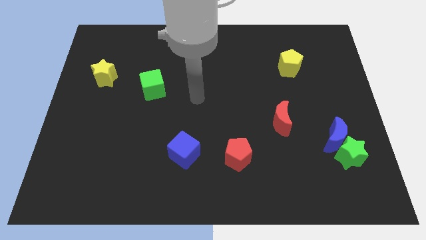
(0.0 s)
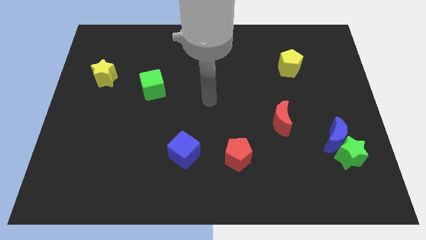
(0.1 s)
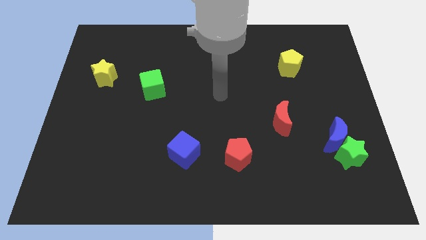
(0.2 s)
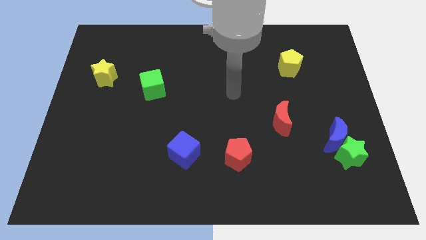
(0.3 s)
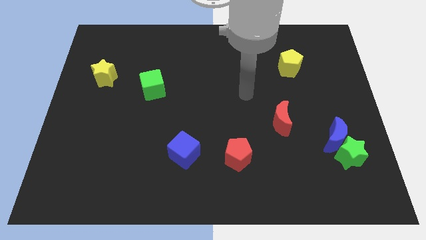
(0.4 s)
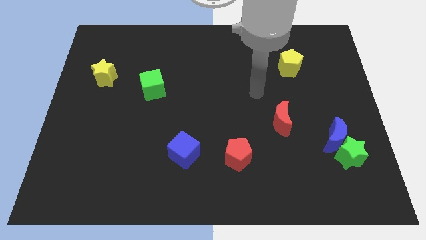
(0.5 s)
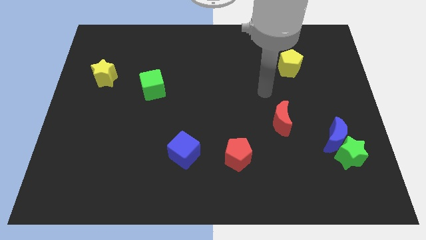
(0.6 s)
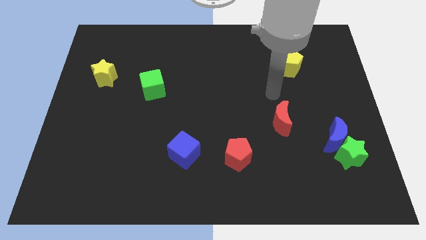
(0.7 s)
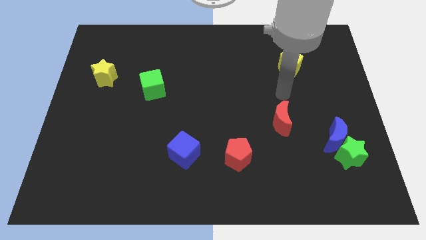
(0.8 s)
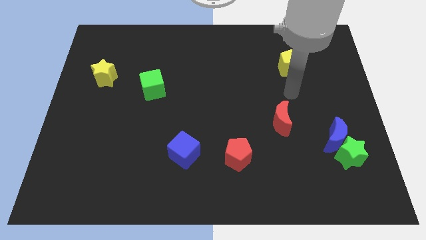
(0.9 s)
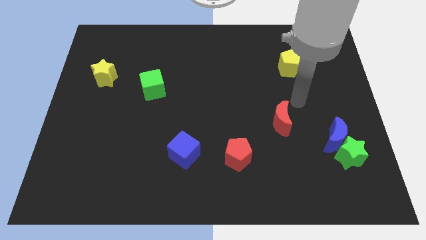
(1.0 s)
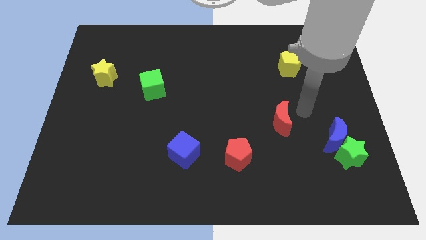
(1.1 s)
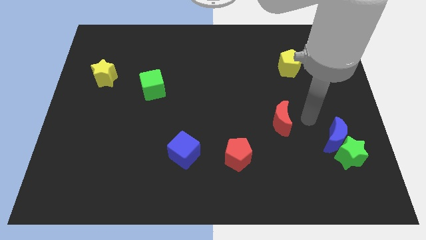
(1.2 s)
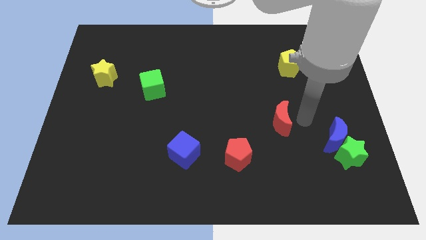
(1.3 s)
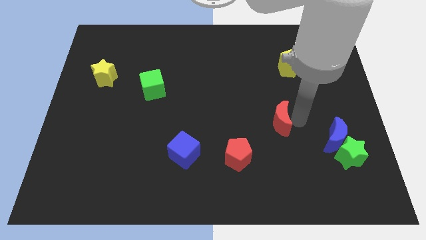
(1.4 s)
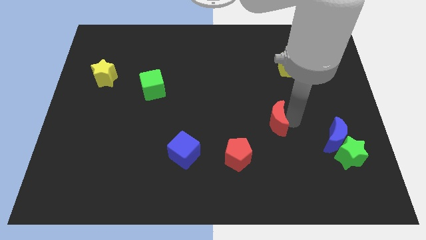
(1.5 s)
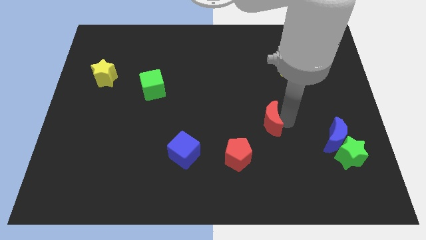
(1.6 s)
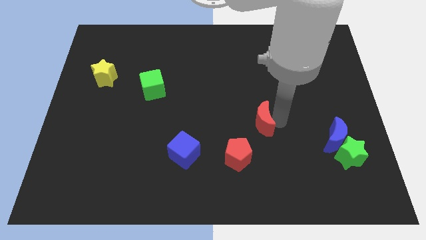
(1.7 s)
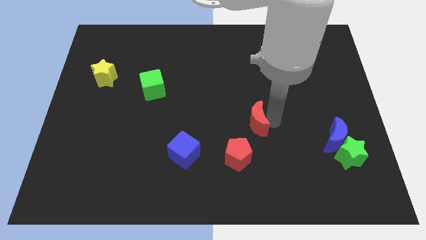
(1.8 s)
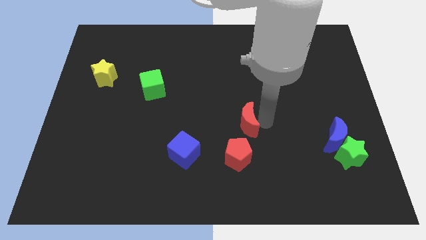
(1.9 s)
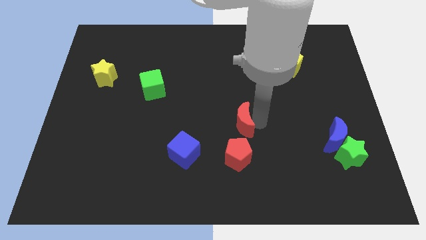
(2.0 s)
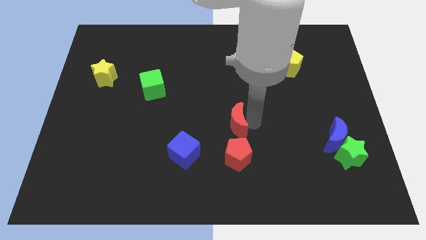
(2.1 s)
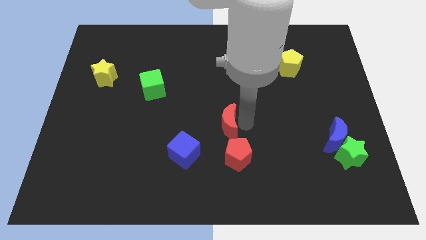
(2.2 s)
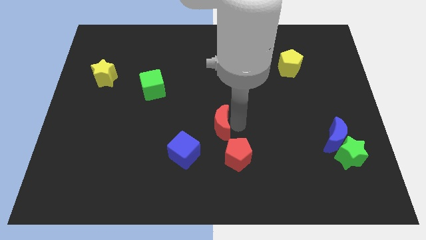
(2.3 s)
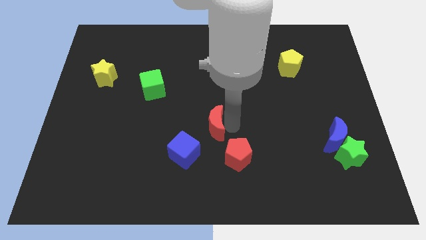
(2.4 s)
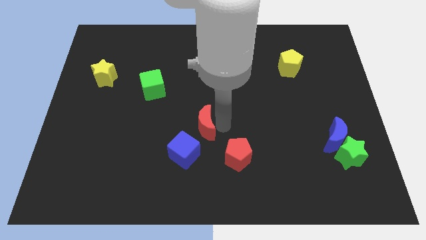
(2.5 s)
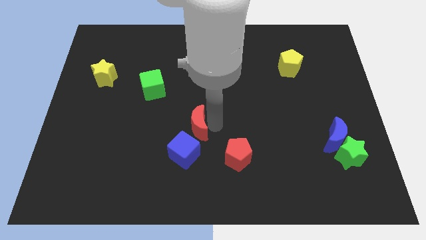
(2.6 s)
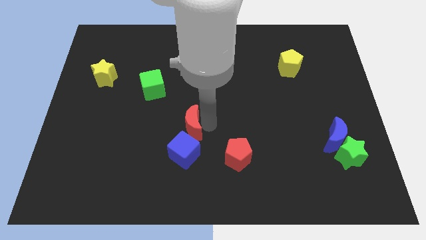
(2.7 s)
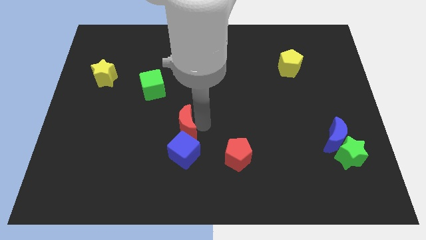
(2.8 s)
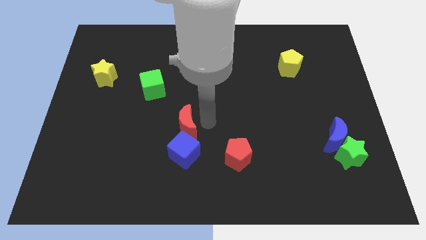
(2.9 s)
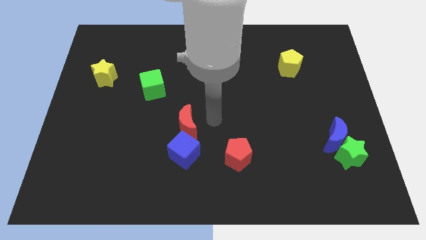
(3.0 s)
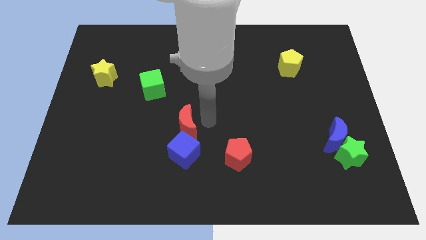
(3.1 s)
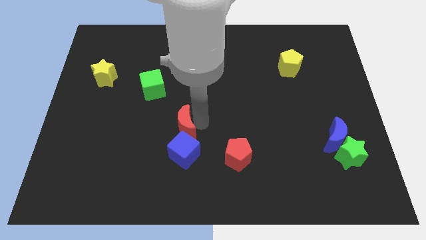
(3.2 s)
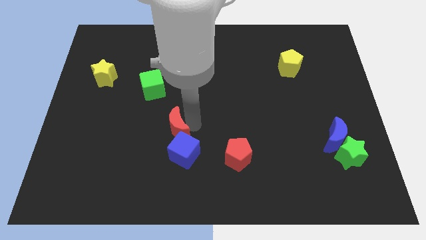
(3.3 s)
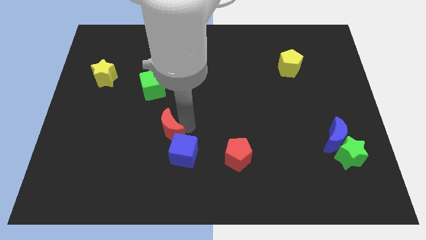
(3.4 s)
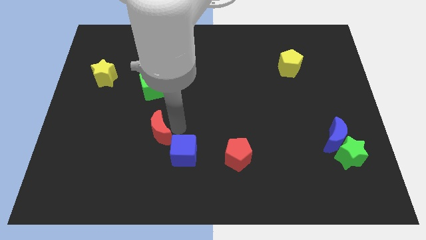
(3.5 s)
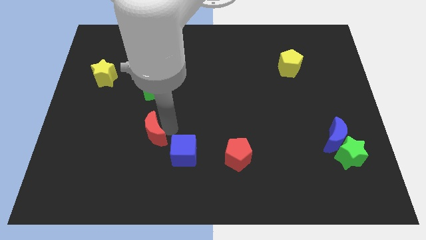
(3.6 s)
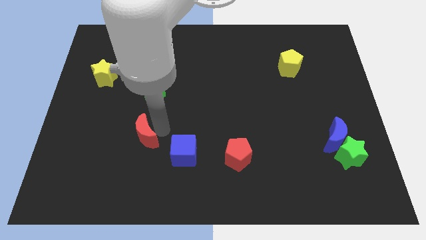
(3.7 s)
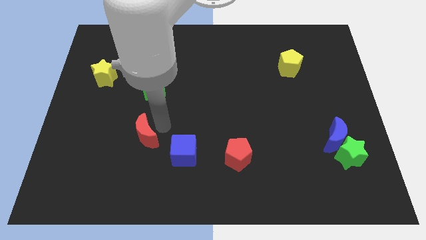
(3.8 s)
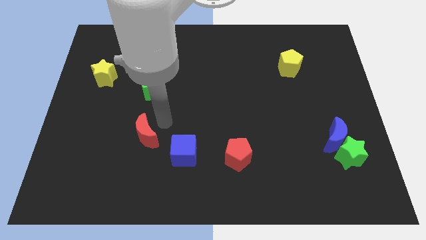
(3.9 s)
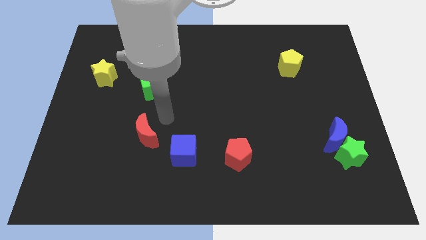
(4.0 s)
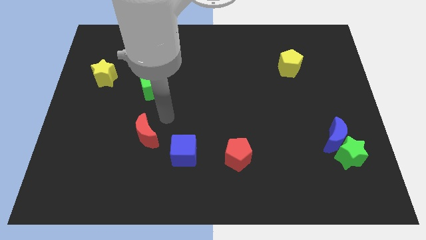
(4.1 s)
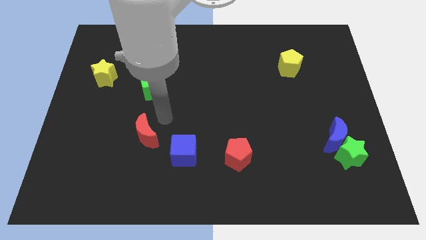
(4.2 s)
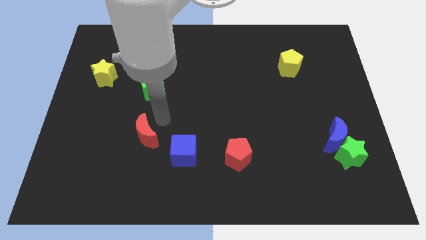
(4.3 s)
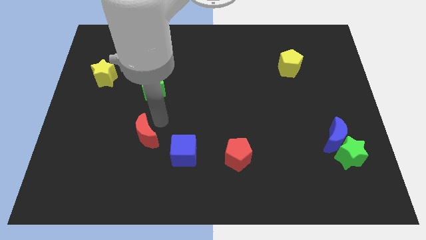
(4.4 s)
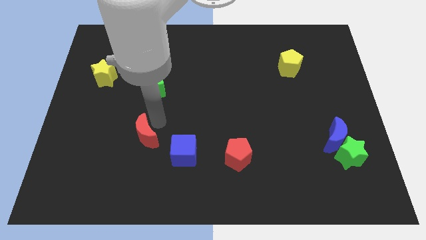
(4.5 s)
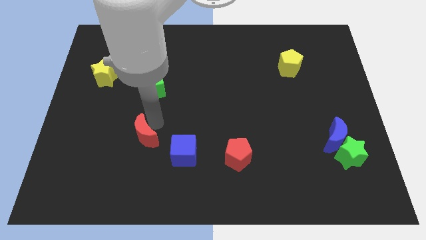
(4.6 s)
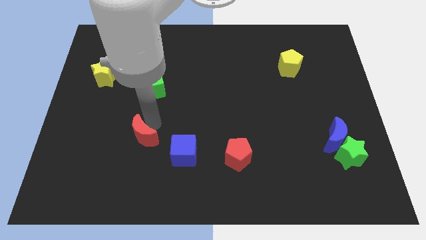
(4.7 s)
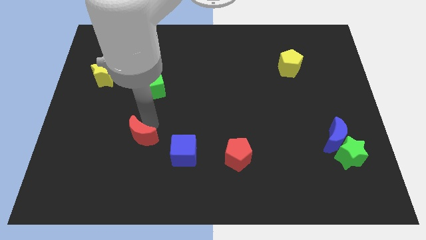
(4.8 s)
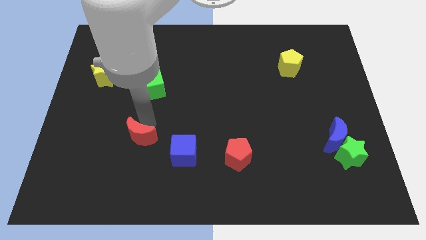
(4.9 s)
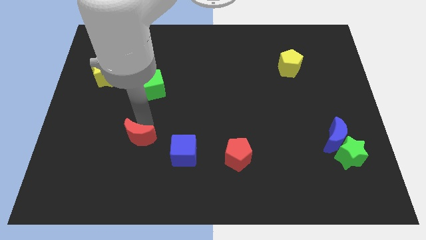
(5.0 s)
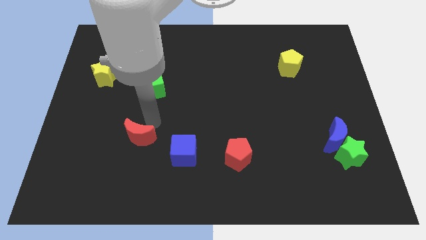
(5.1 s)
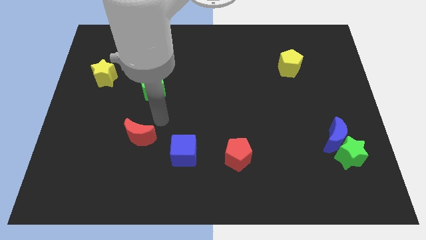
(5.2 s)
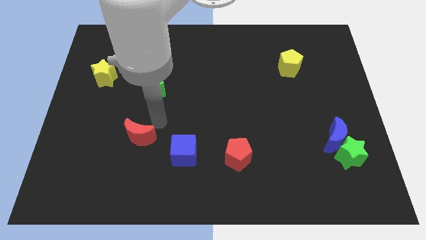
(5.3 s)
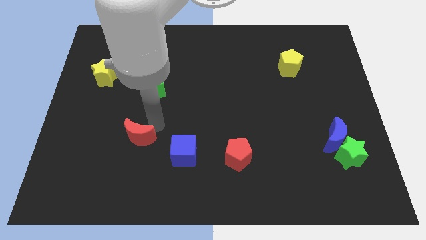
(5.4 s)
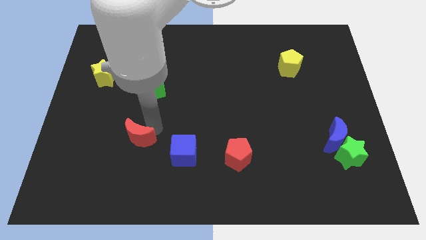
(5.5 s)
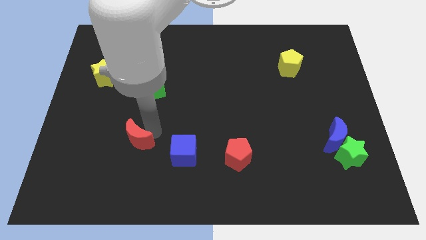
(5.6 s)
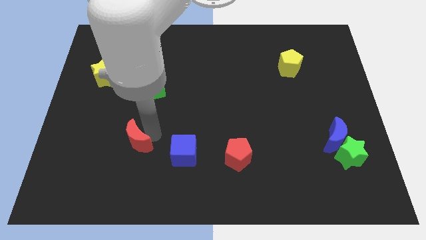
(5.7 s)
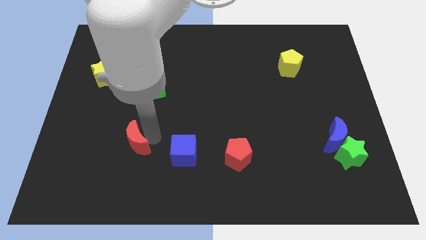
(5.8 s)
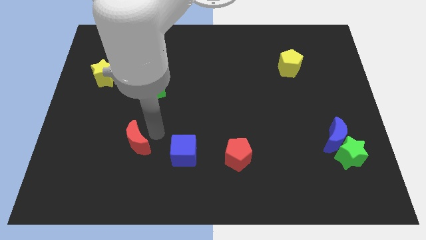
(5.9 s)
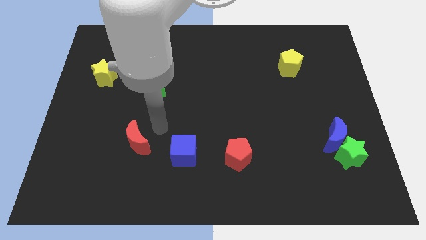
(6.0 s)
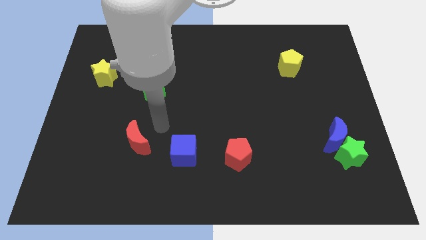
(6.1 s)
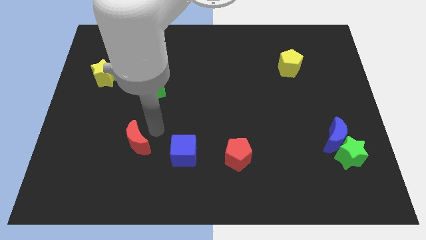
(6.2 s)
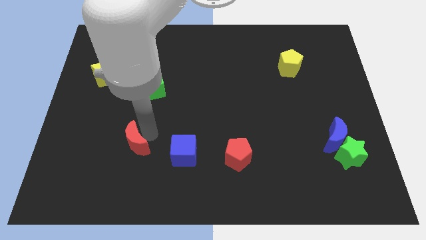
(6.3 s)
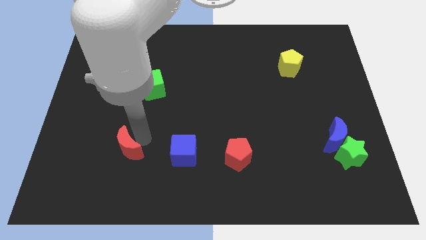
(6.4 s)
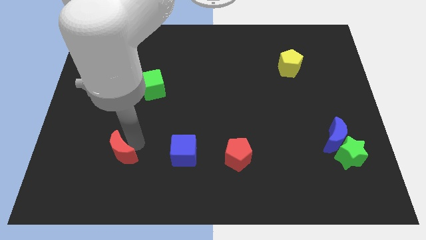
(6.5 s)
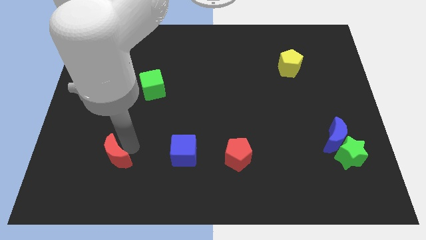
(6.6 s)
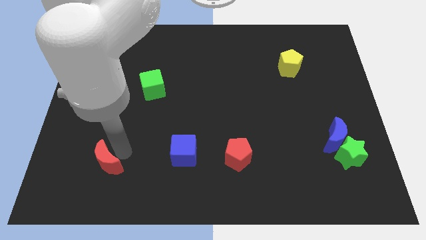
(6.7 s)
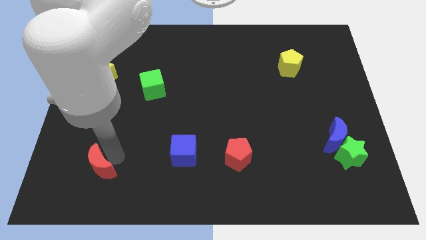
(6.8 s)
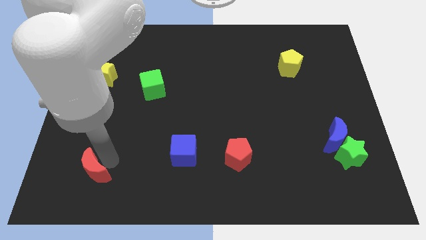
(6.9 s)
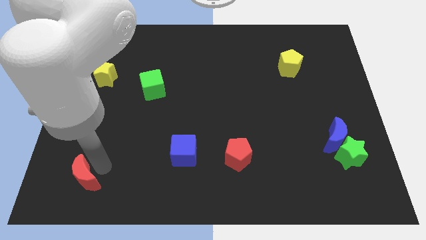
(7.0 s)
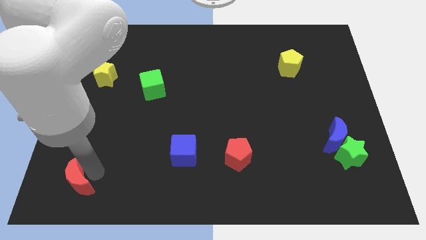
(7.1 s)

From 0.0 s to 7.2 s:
put the red moon to the lower left corner
